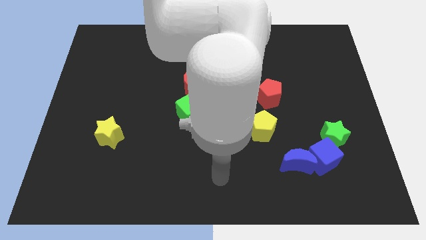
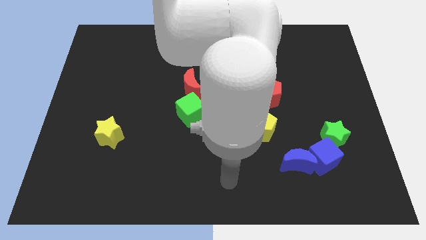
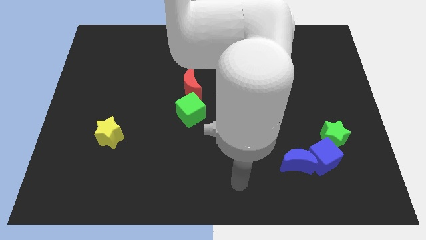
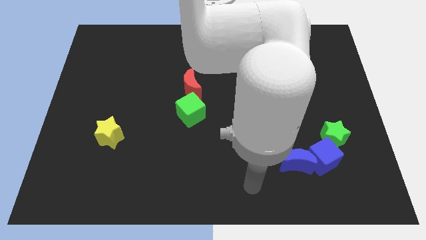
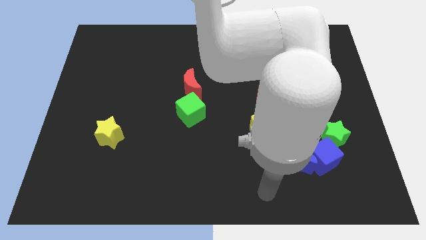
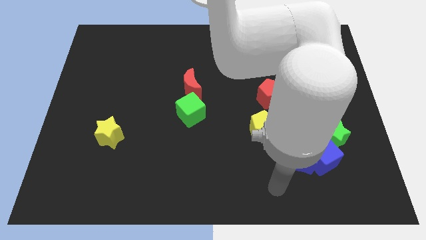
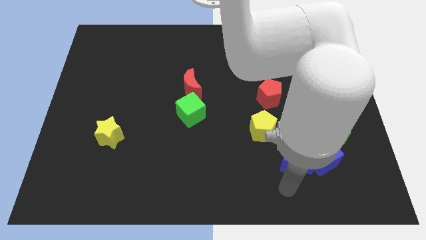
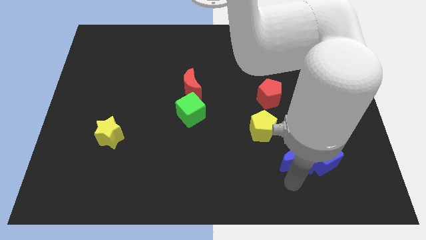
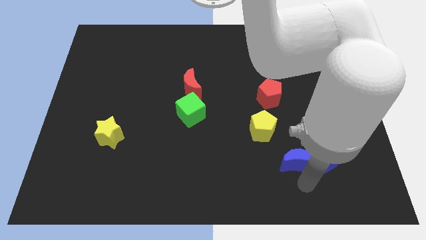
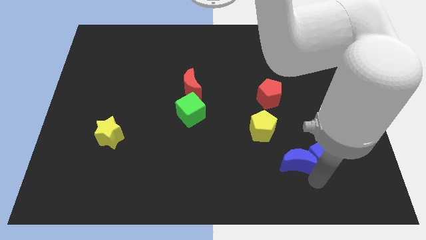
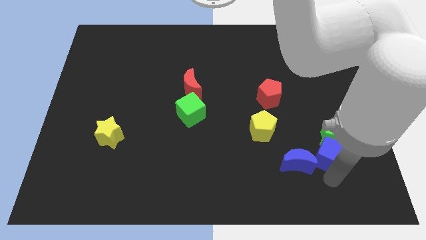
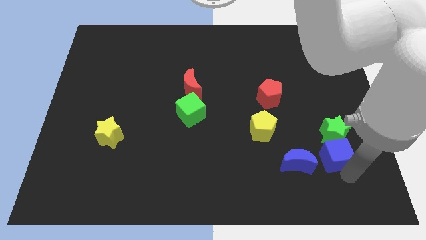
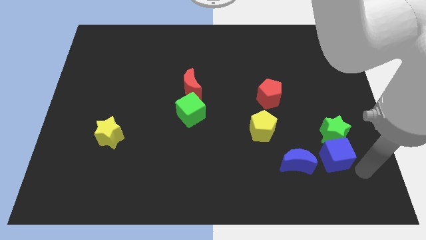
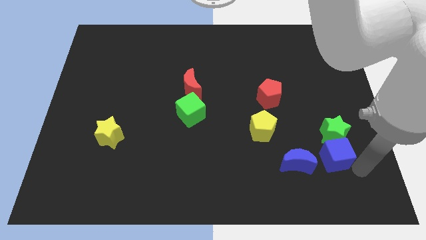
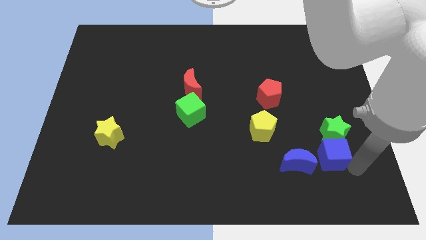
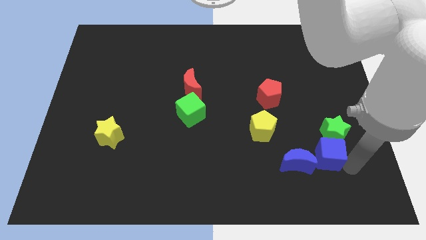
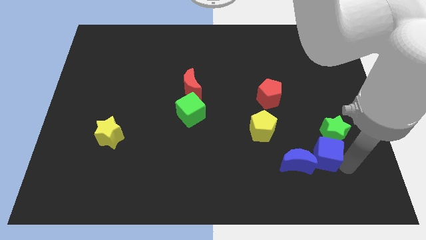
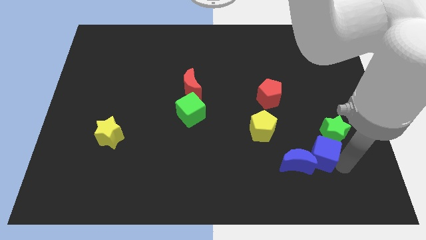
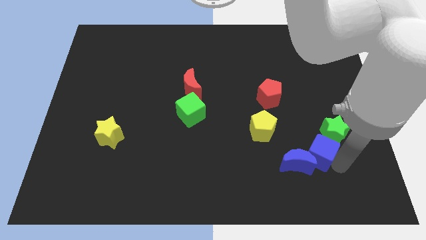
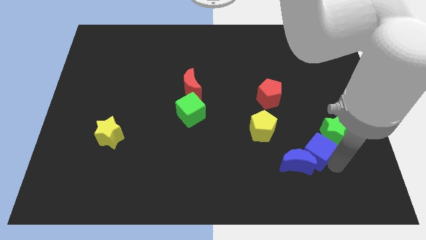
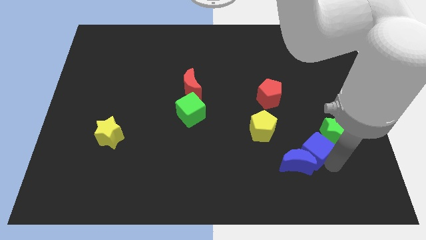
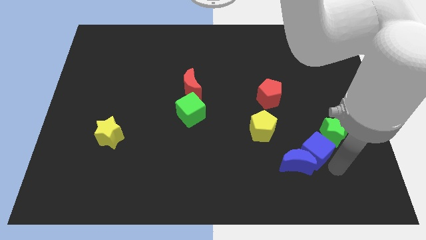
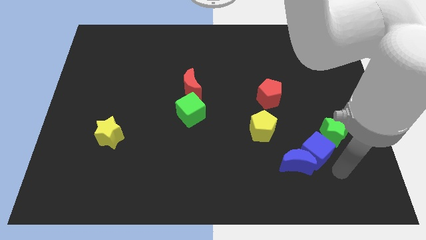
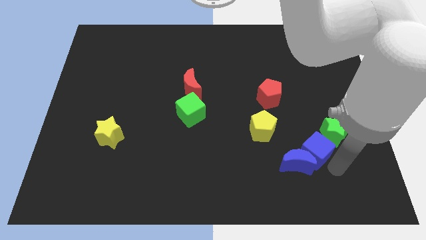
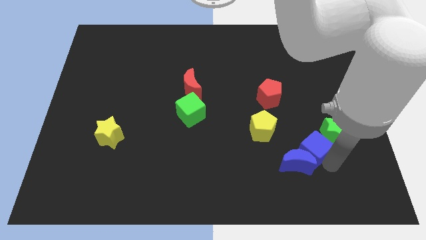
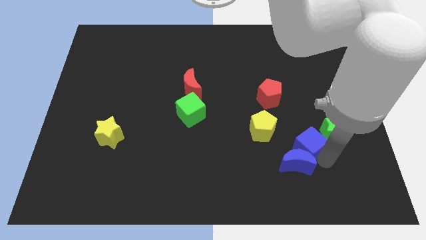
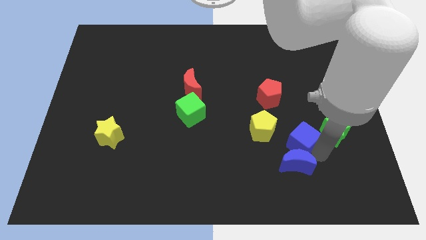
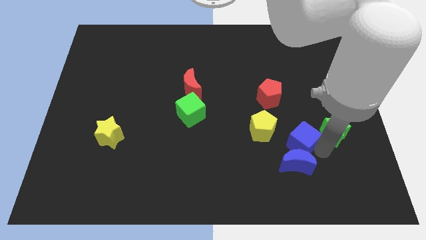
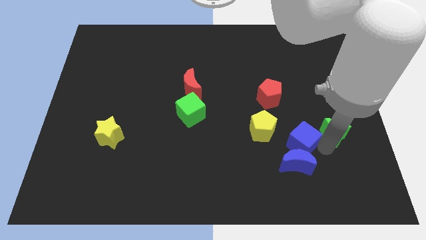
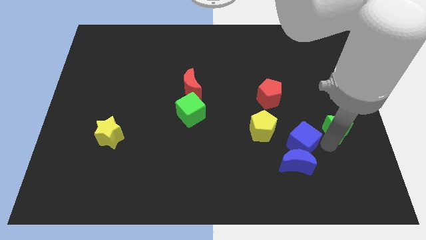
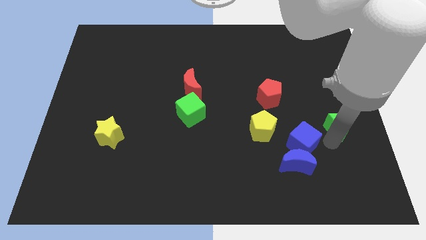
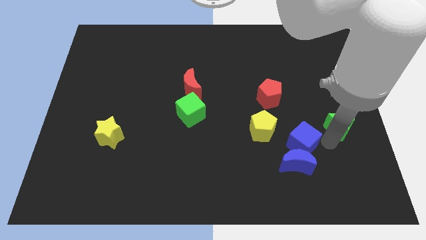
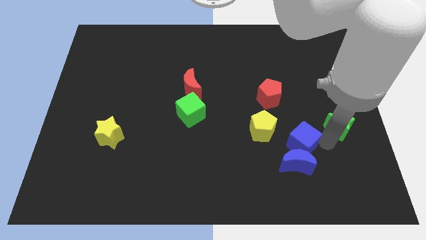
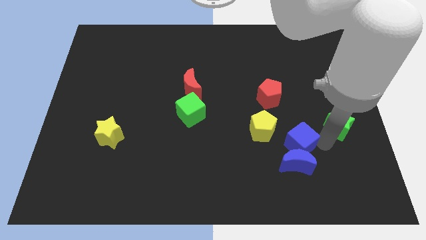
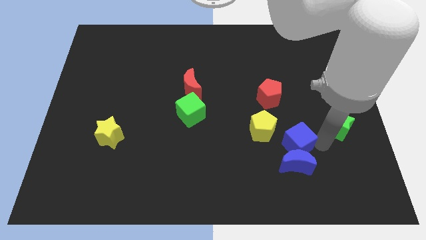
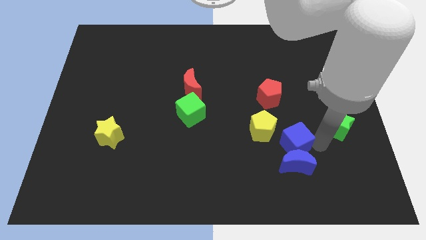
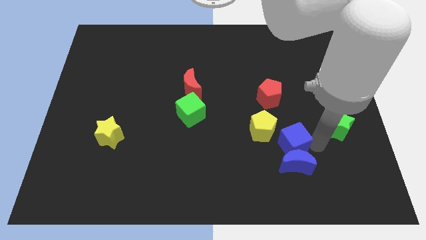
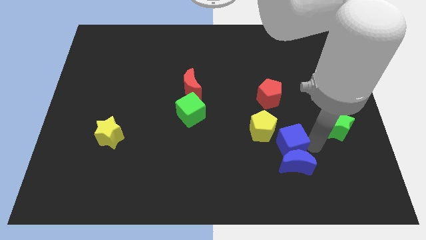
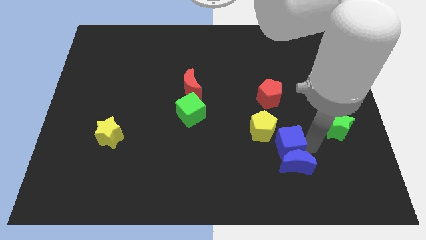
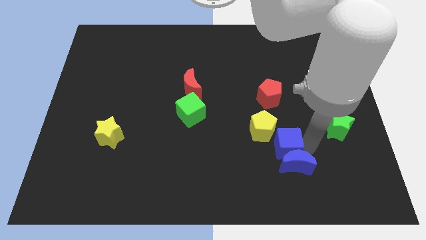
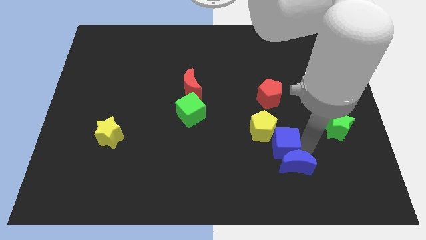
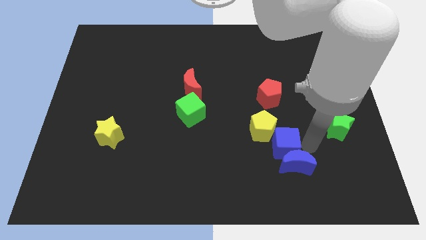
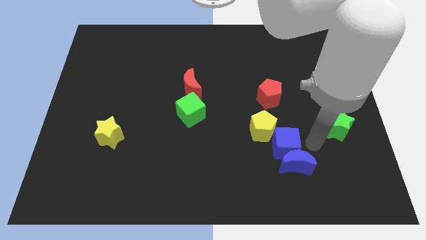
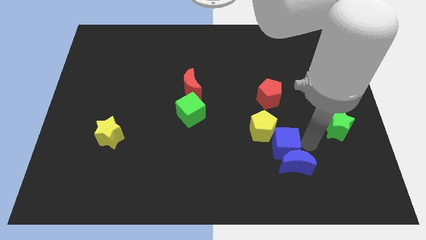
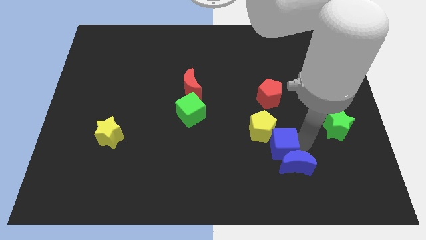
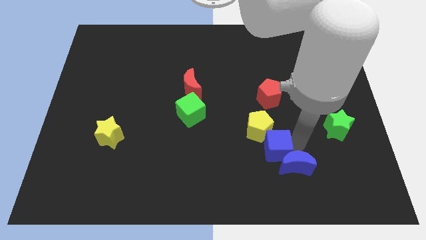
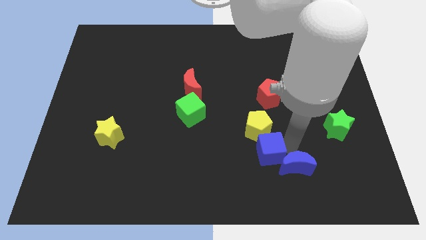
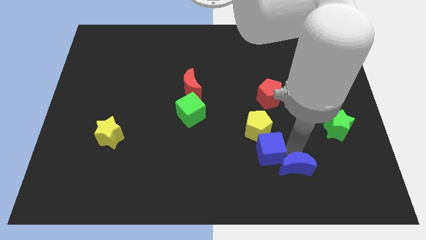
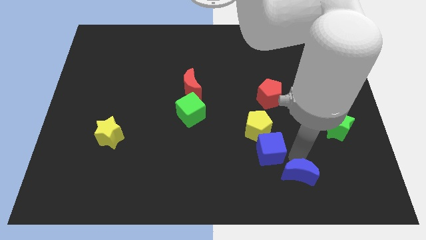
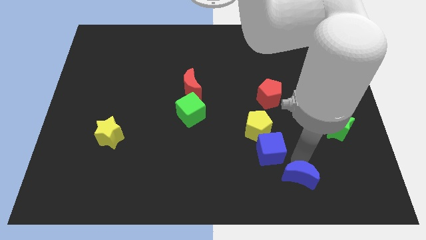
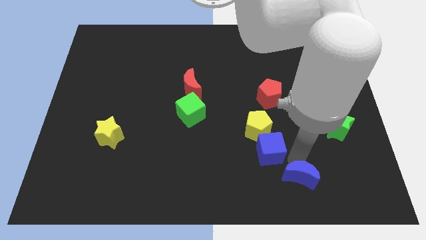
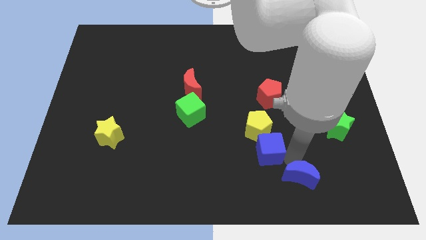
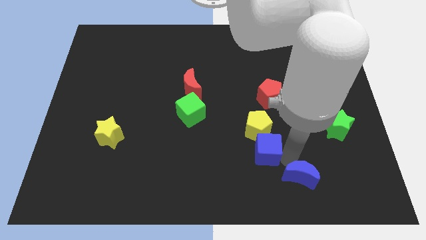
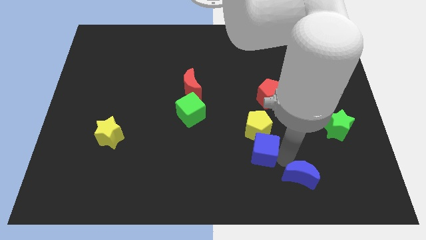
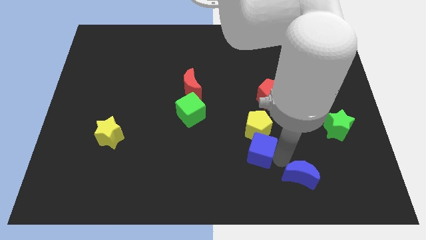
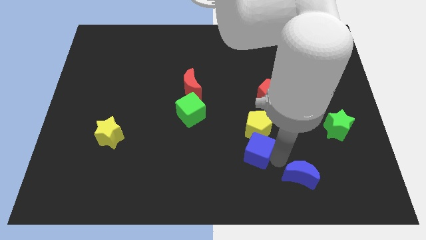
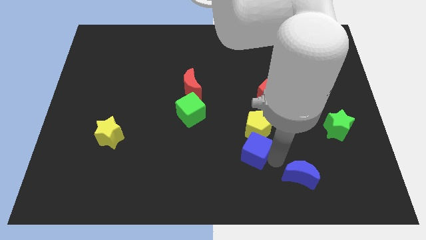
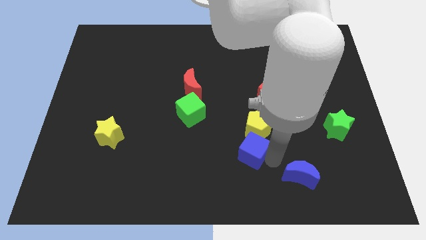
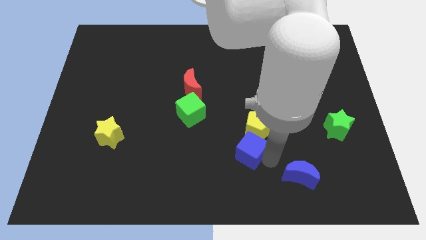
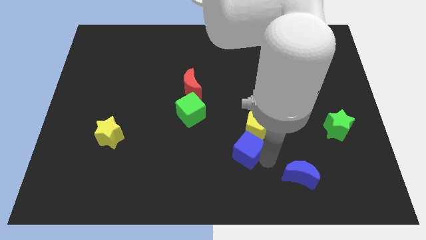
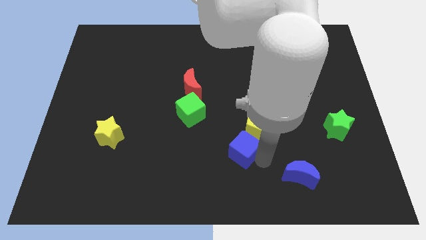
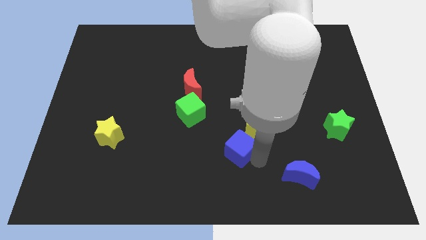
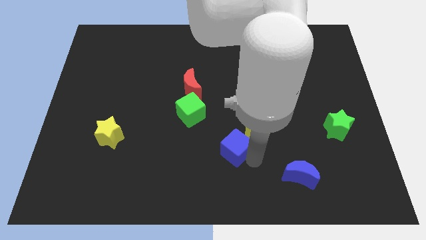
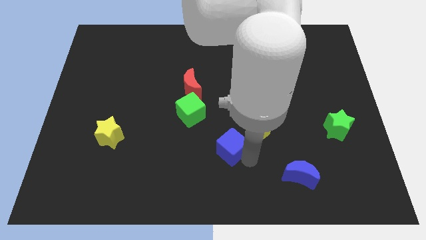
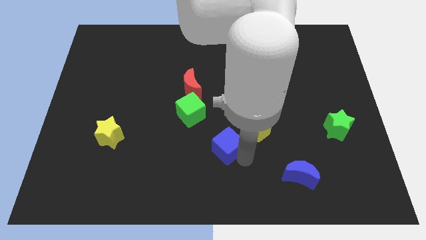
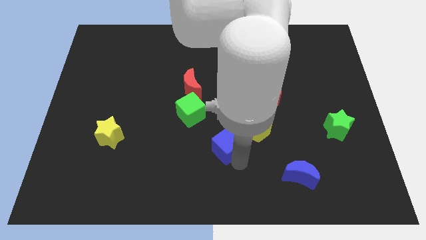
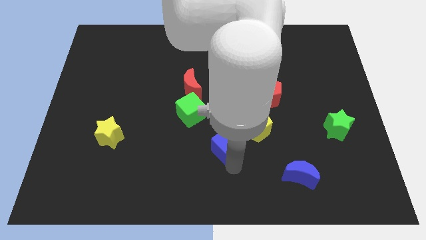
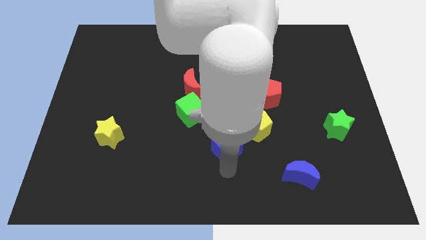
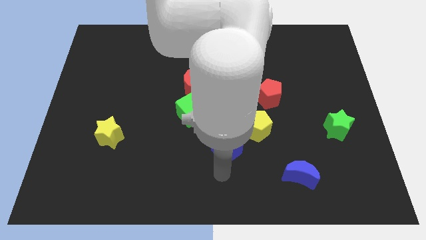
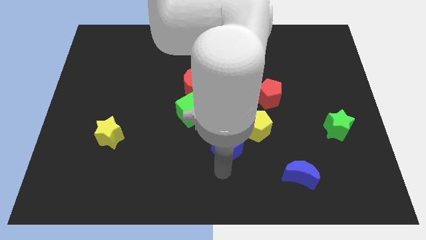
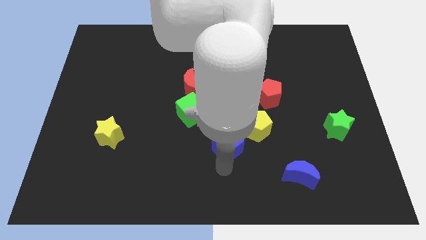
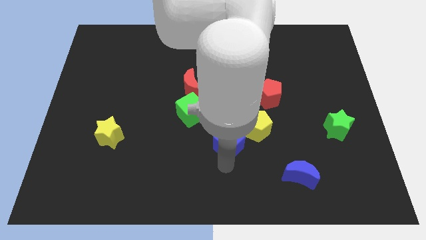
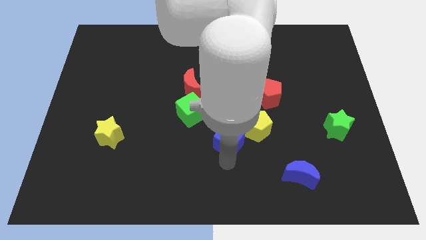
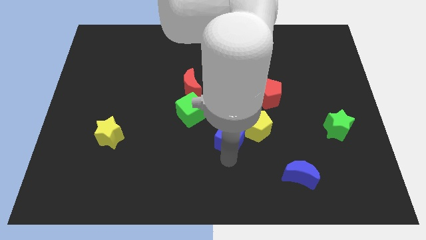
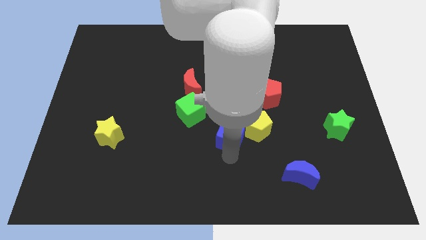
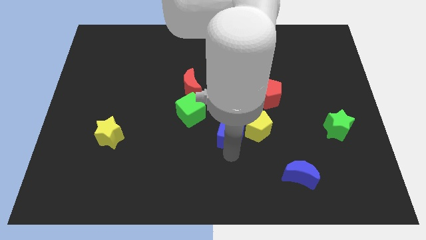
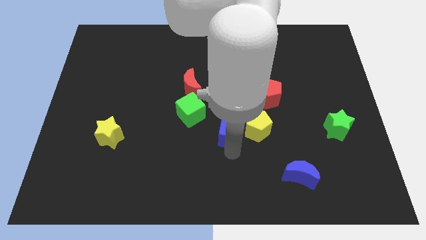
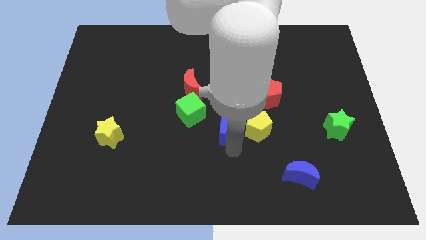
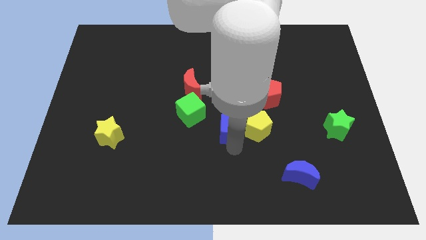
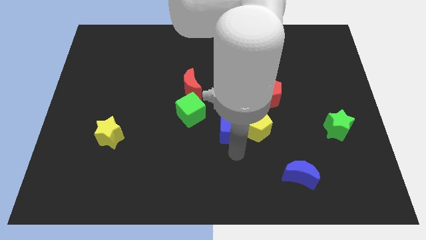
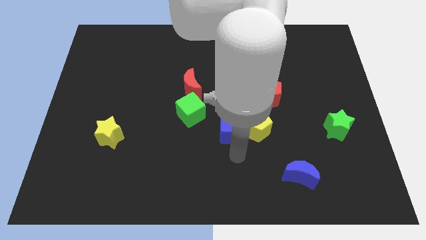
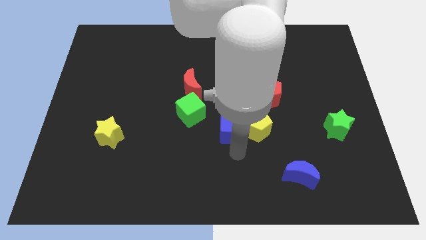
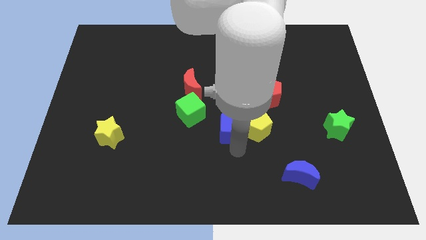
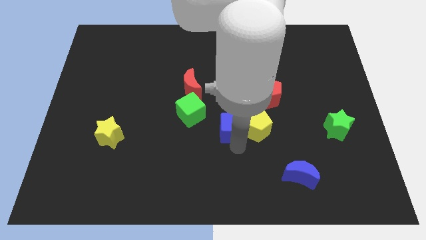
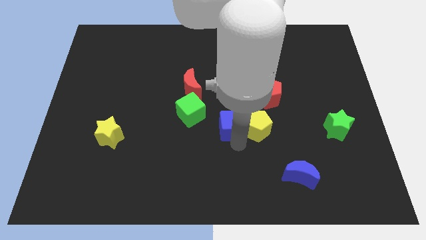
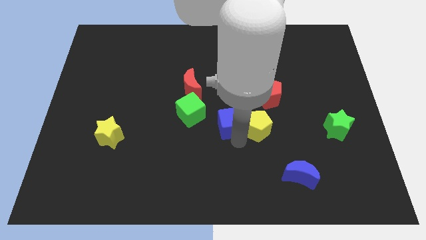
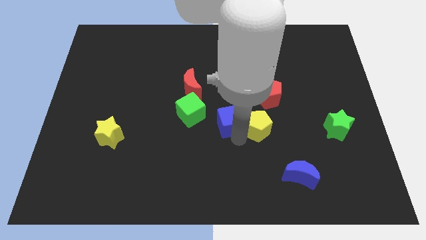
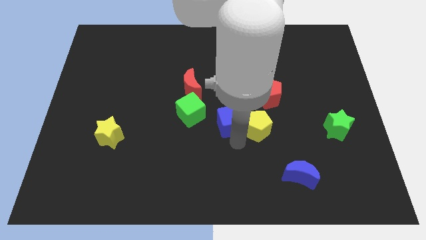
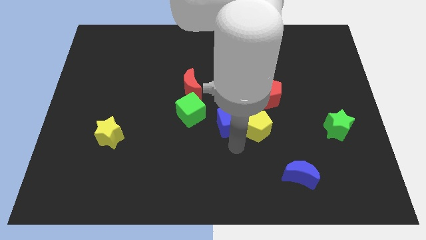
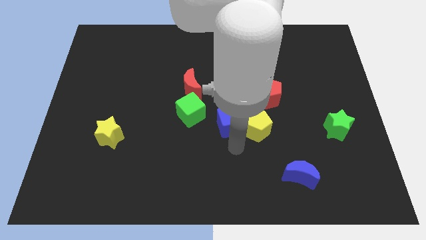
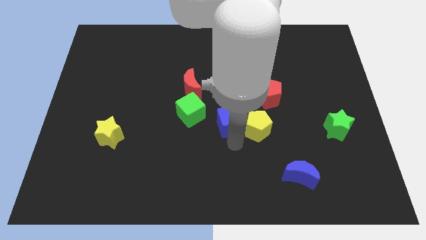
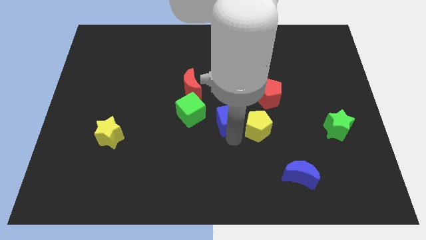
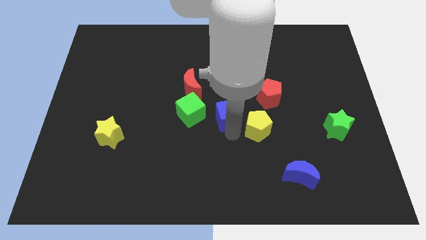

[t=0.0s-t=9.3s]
slide the blue cube upwards and to the left diagonally
